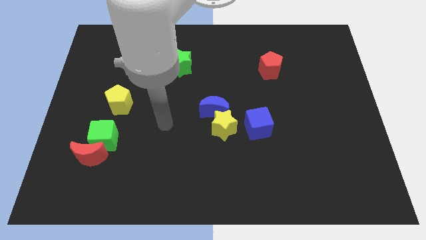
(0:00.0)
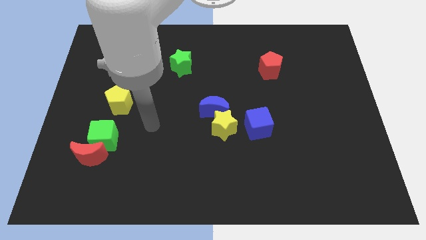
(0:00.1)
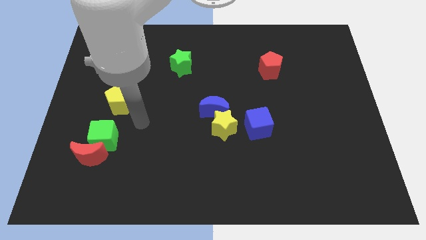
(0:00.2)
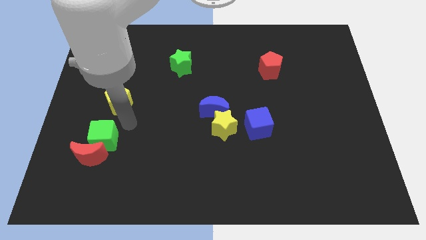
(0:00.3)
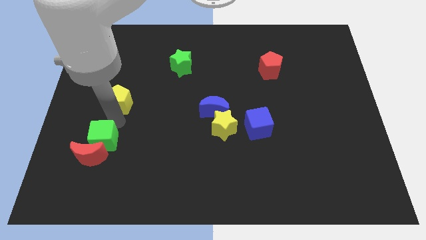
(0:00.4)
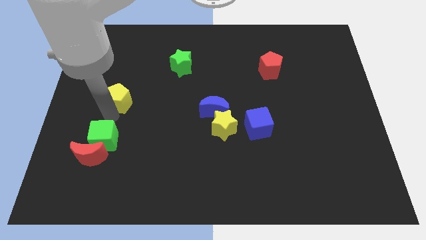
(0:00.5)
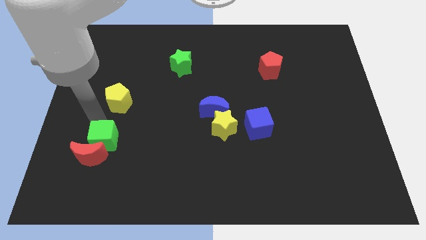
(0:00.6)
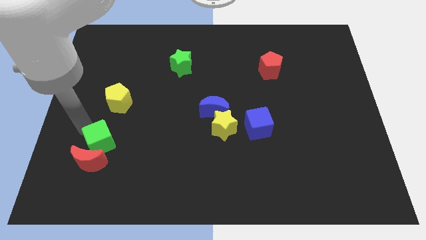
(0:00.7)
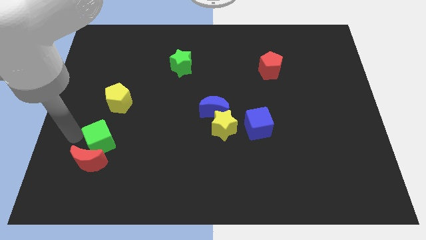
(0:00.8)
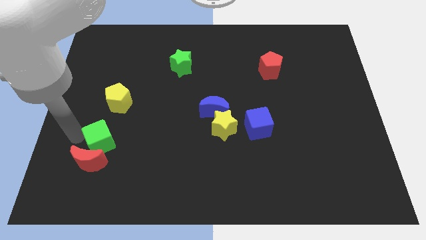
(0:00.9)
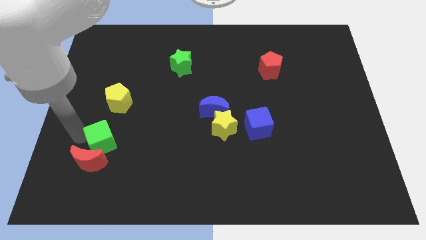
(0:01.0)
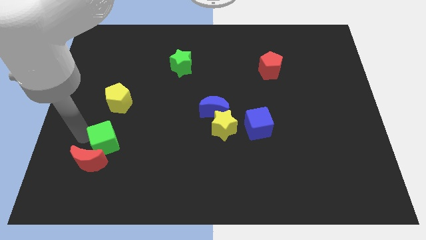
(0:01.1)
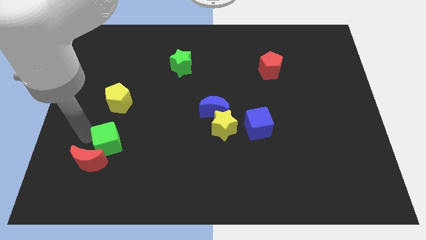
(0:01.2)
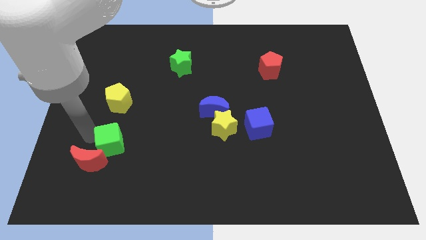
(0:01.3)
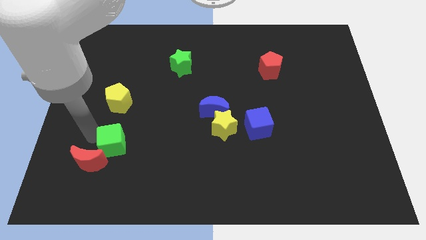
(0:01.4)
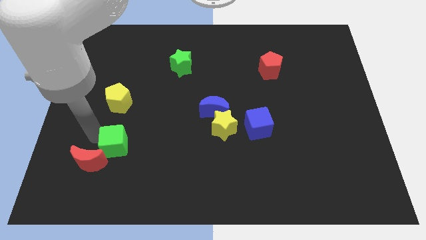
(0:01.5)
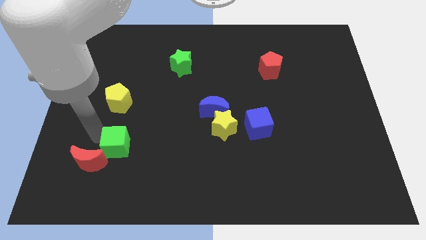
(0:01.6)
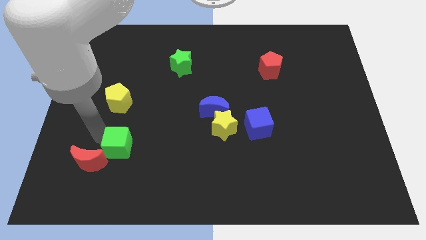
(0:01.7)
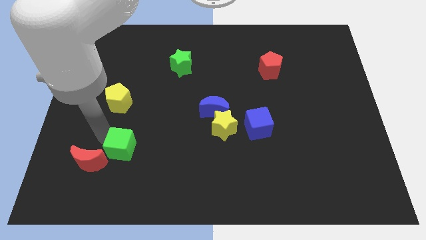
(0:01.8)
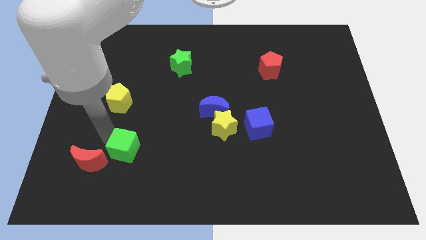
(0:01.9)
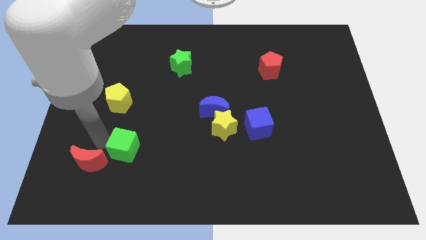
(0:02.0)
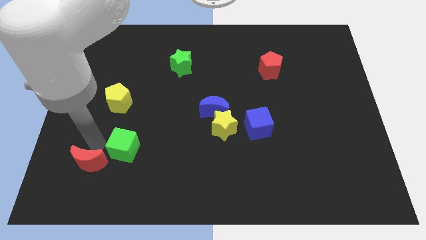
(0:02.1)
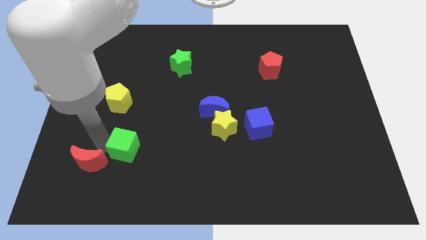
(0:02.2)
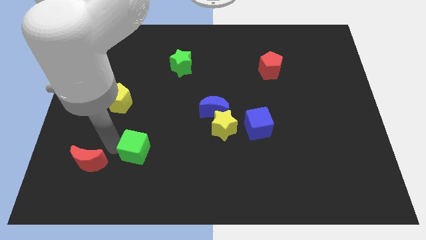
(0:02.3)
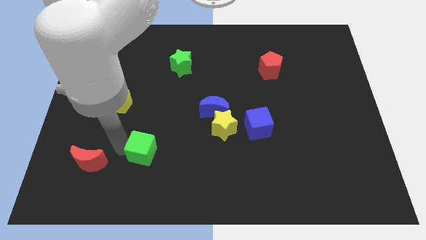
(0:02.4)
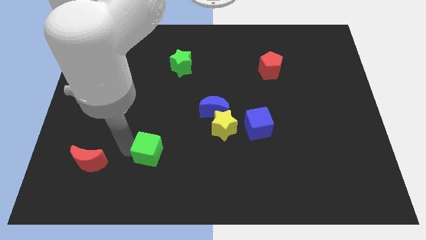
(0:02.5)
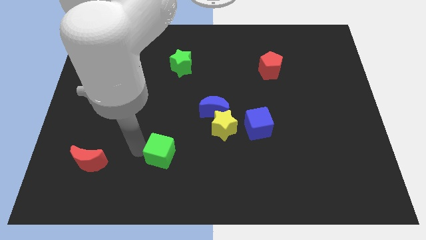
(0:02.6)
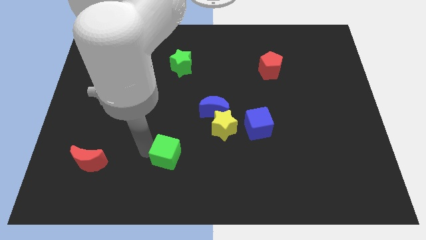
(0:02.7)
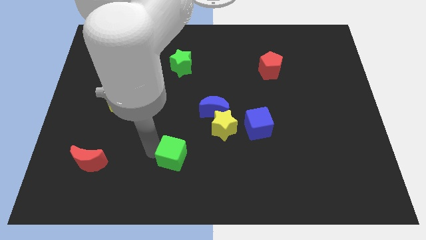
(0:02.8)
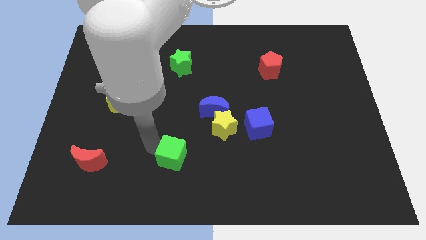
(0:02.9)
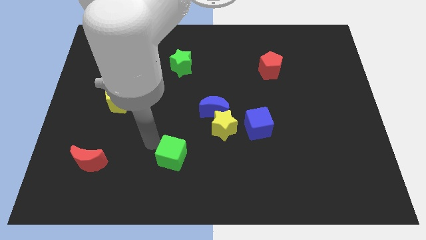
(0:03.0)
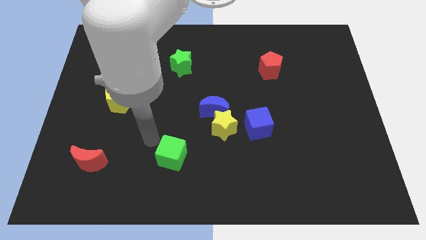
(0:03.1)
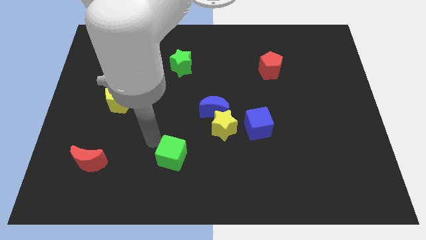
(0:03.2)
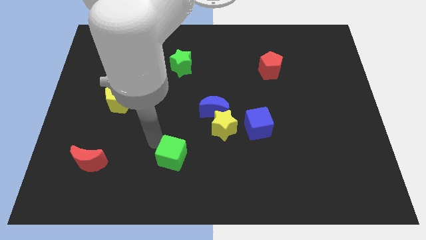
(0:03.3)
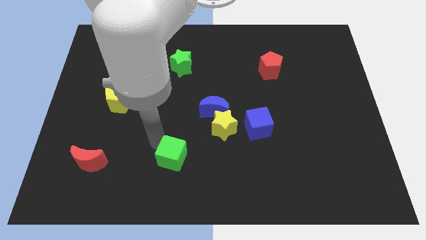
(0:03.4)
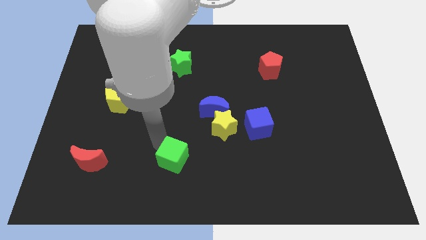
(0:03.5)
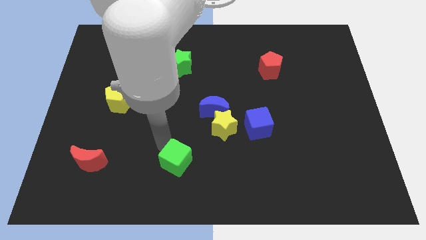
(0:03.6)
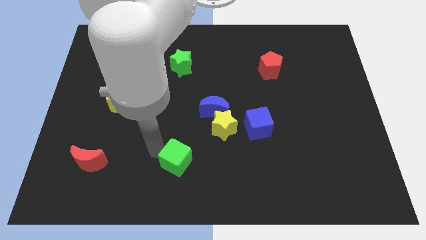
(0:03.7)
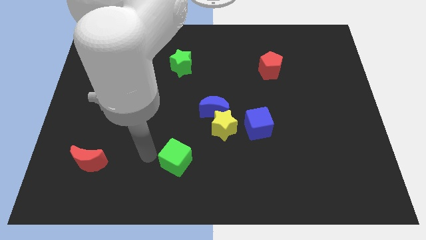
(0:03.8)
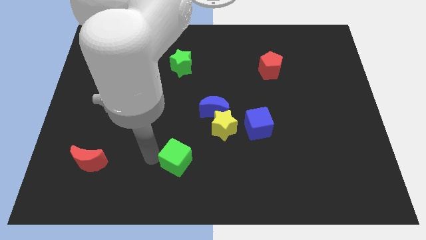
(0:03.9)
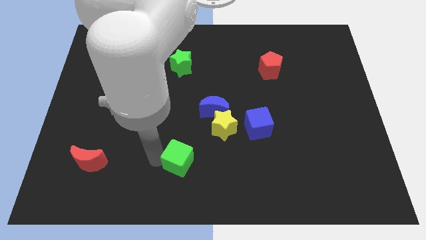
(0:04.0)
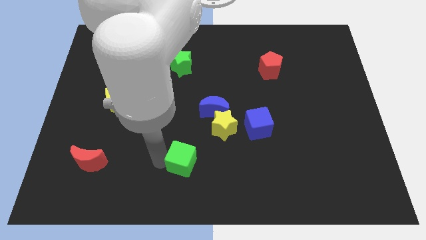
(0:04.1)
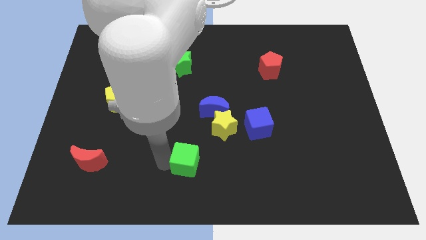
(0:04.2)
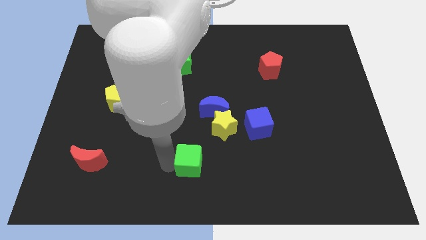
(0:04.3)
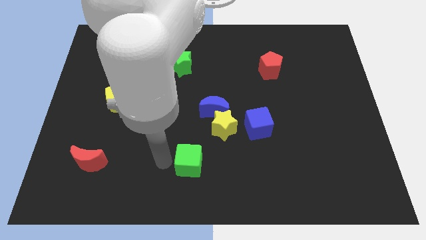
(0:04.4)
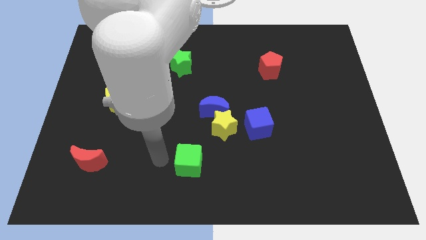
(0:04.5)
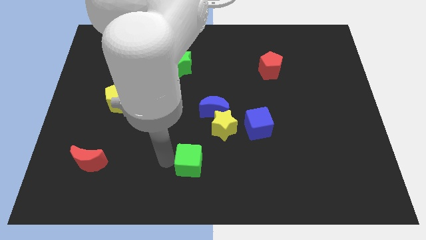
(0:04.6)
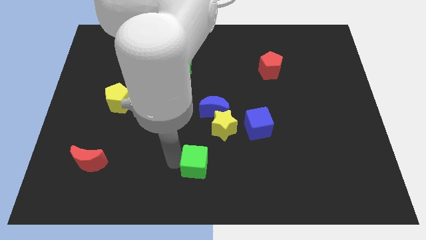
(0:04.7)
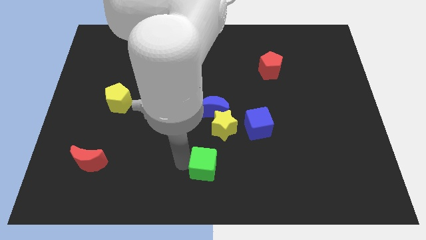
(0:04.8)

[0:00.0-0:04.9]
put the green cube to the bottom of the yellow star

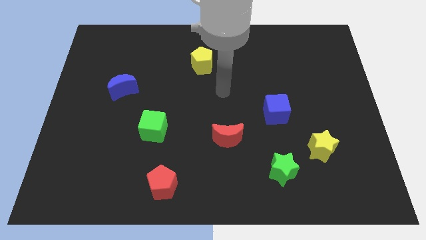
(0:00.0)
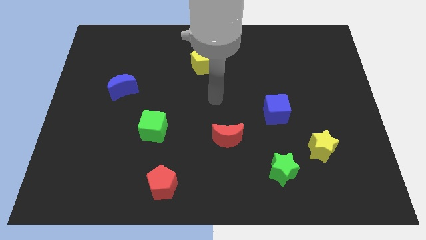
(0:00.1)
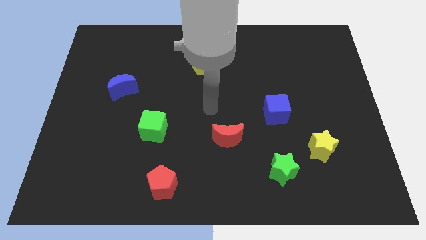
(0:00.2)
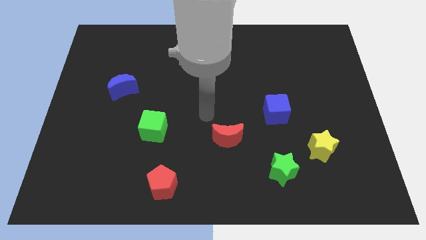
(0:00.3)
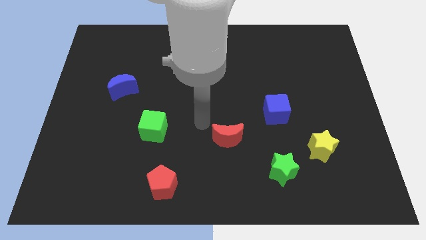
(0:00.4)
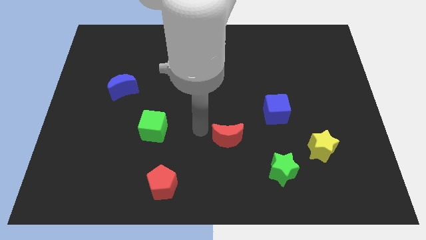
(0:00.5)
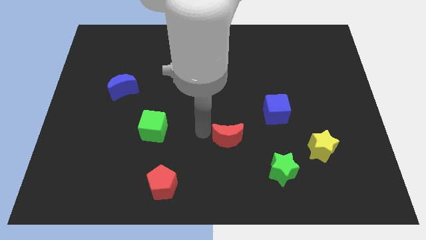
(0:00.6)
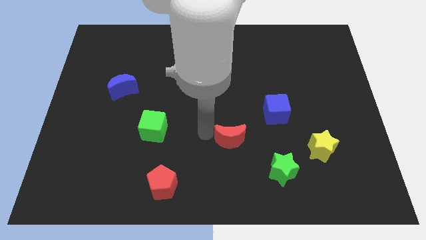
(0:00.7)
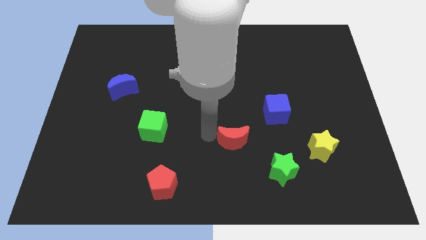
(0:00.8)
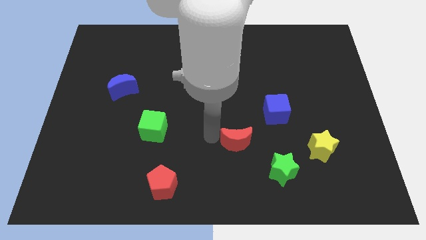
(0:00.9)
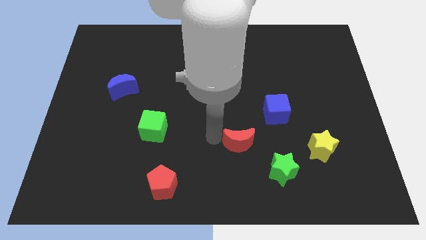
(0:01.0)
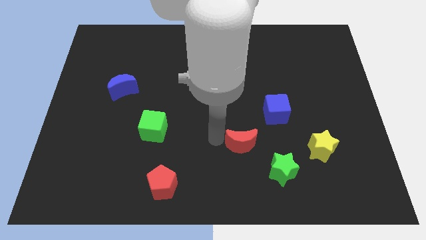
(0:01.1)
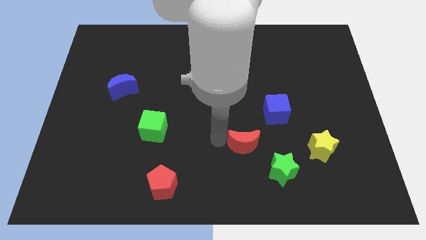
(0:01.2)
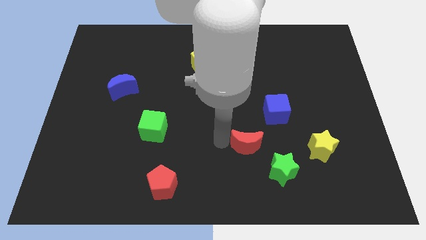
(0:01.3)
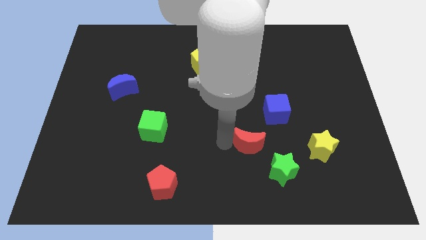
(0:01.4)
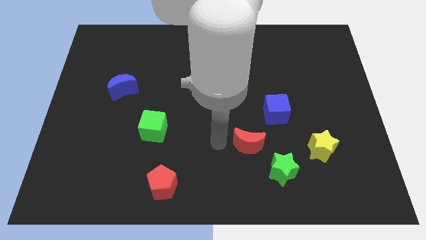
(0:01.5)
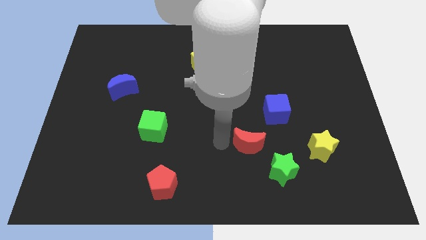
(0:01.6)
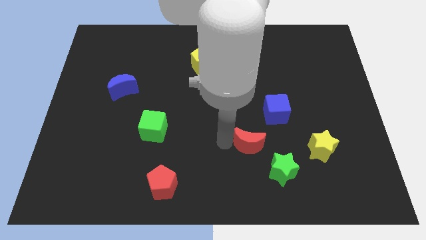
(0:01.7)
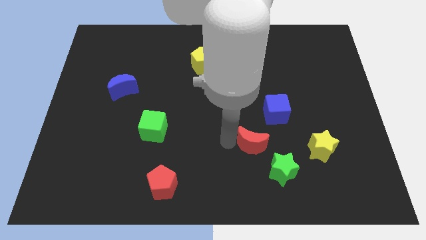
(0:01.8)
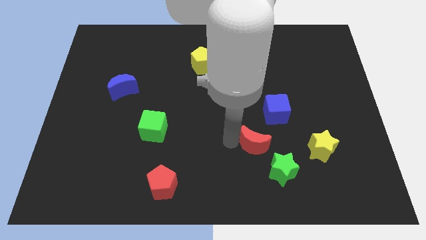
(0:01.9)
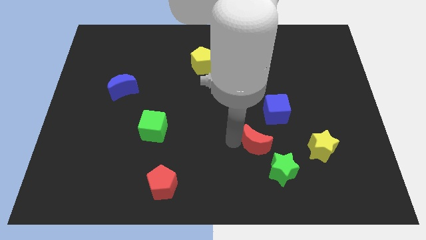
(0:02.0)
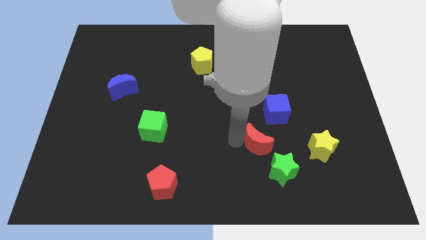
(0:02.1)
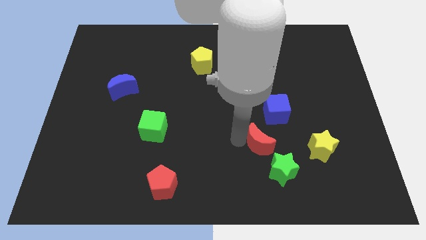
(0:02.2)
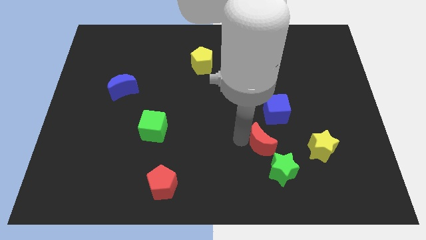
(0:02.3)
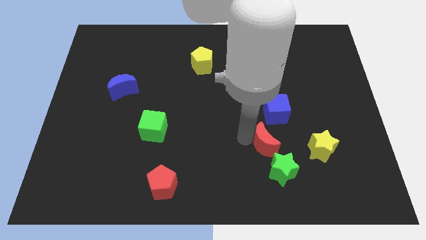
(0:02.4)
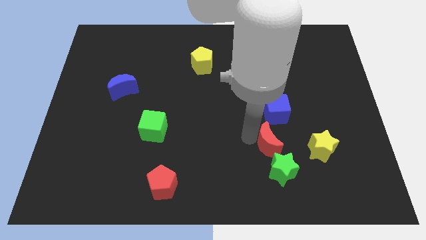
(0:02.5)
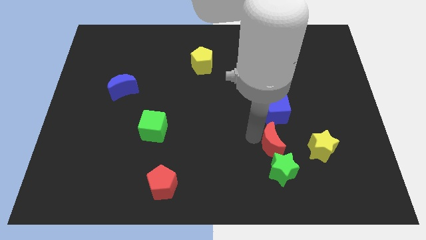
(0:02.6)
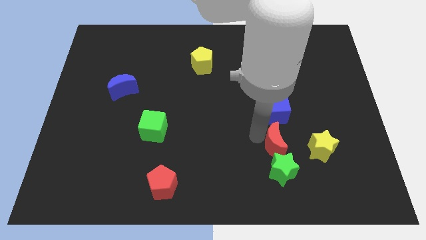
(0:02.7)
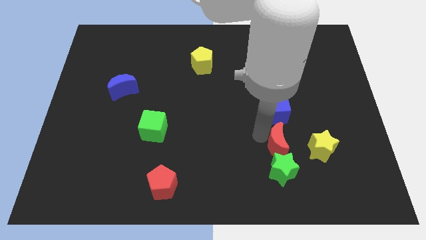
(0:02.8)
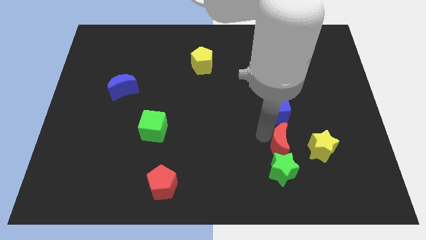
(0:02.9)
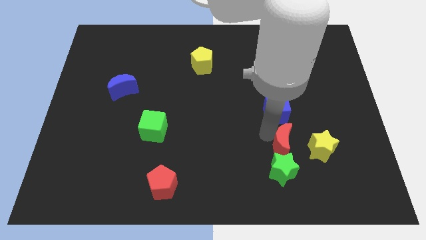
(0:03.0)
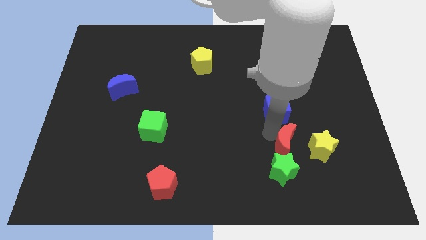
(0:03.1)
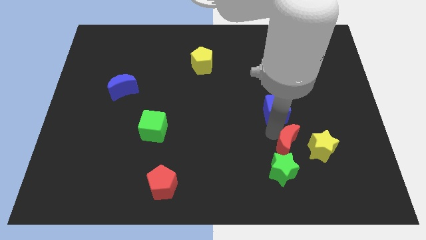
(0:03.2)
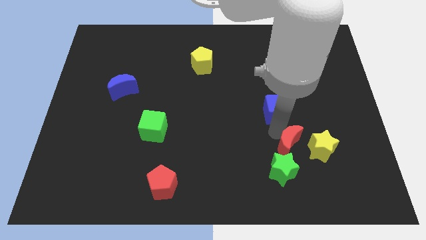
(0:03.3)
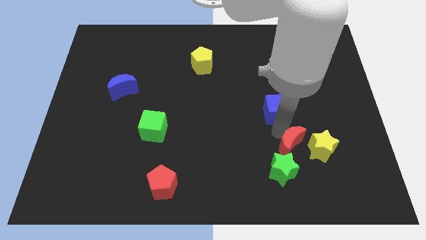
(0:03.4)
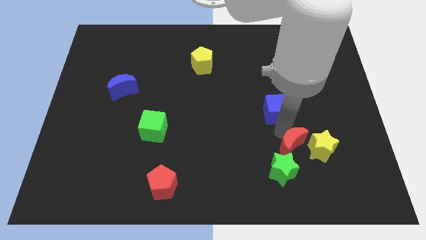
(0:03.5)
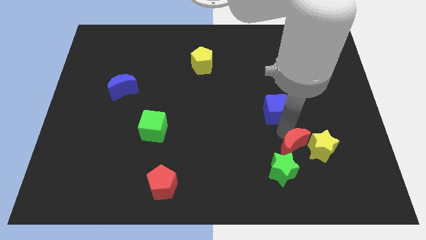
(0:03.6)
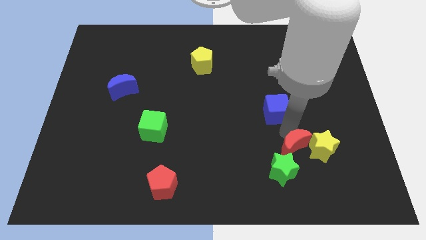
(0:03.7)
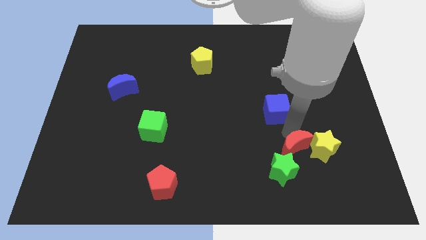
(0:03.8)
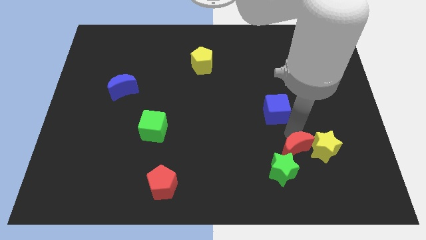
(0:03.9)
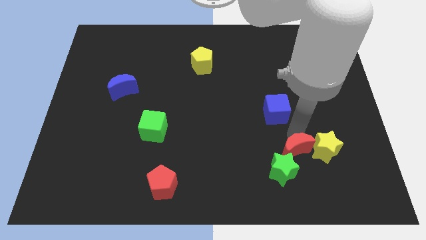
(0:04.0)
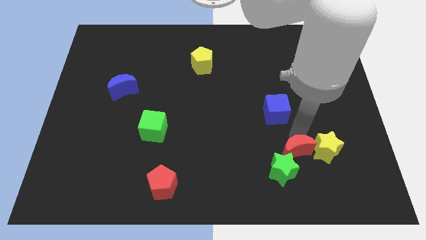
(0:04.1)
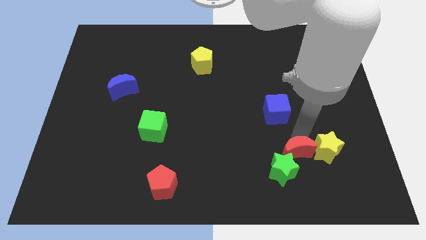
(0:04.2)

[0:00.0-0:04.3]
push the red moon right of the green star
